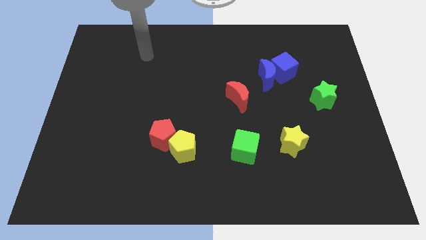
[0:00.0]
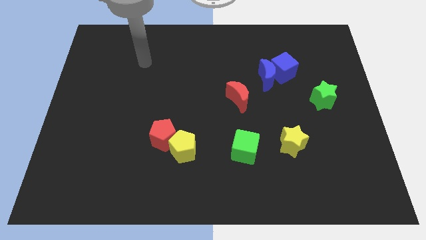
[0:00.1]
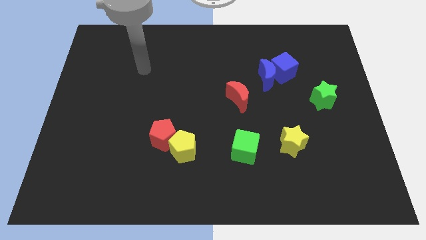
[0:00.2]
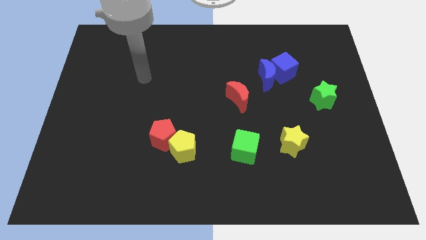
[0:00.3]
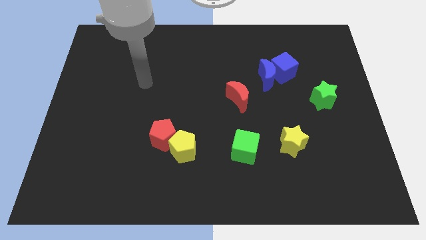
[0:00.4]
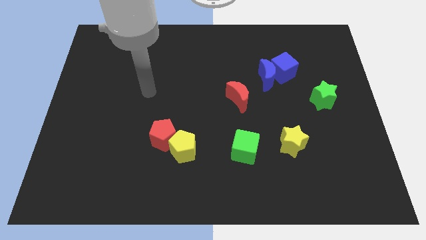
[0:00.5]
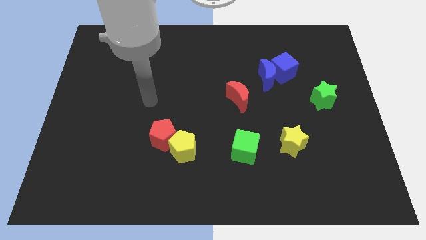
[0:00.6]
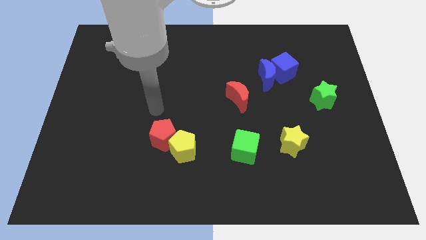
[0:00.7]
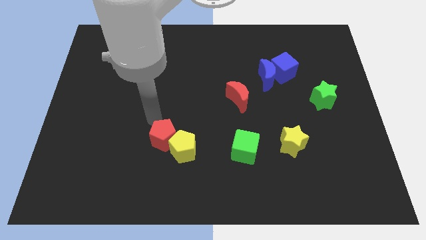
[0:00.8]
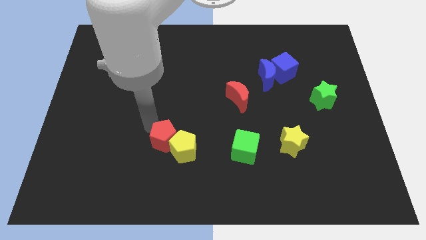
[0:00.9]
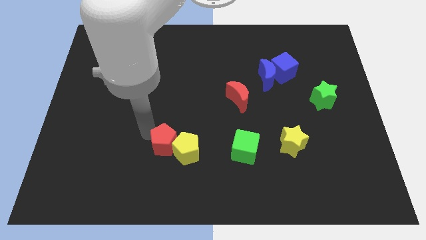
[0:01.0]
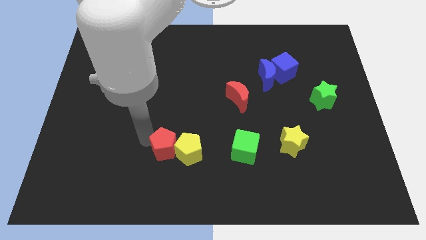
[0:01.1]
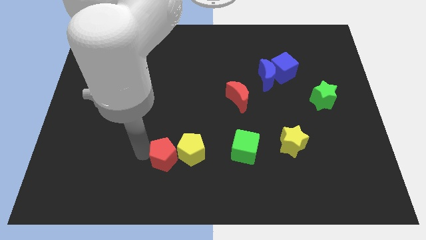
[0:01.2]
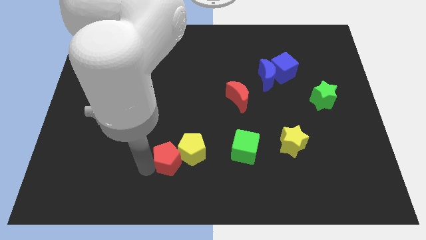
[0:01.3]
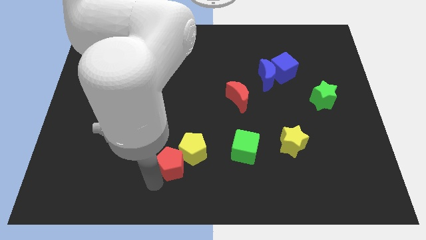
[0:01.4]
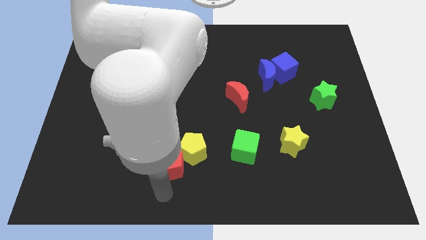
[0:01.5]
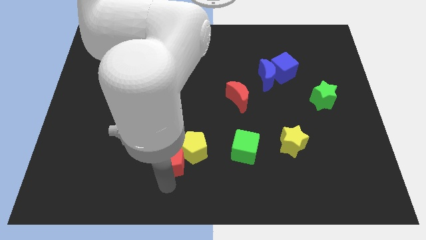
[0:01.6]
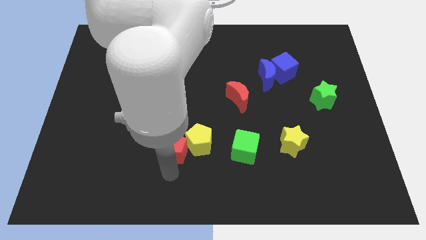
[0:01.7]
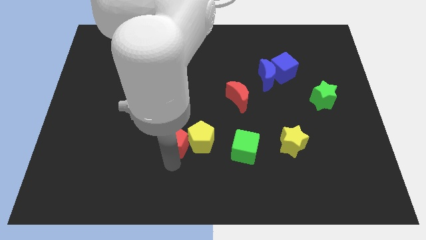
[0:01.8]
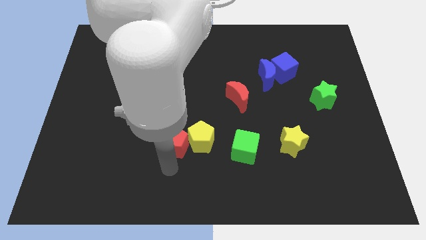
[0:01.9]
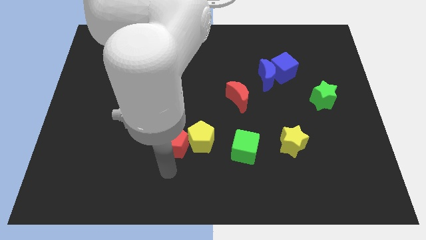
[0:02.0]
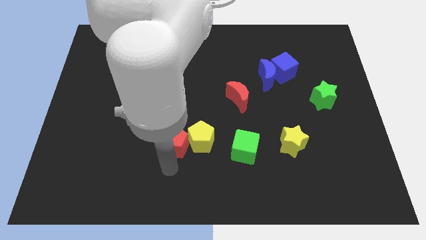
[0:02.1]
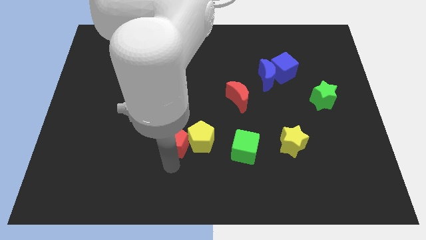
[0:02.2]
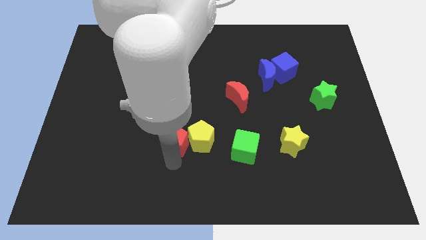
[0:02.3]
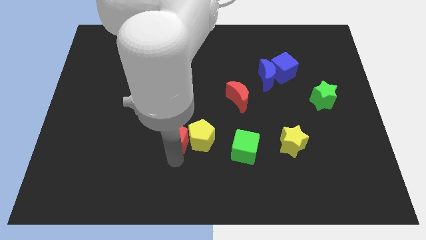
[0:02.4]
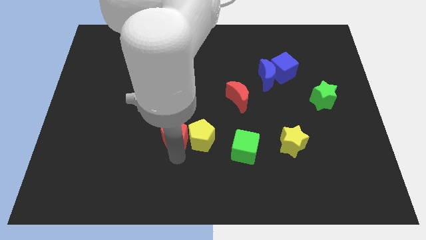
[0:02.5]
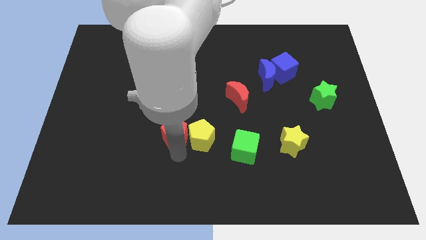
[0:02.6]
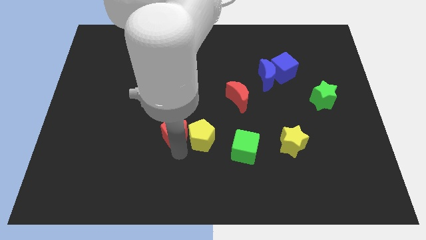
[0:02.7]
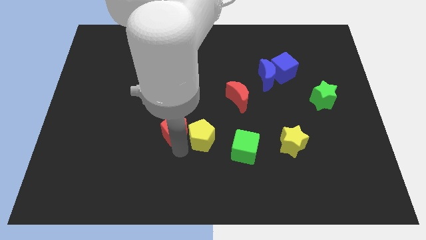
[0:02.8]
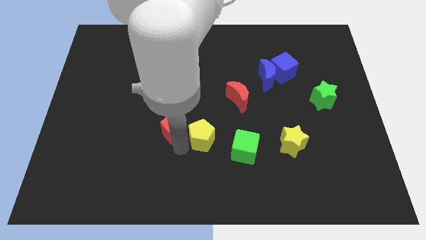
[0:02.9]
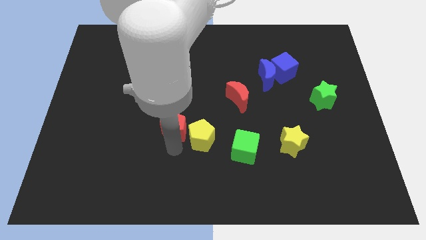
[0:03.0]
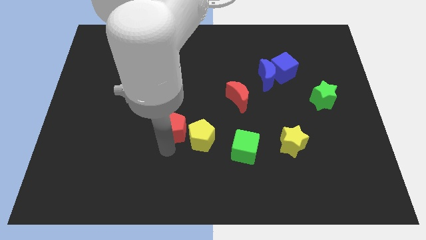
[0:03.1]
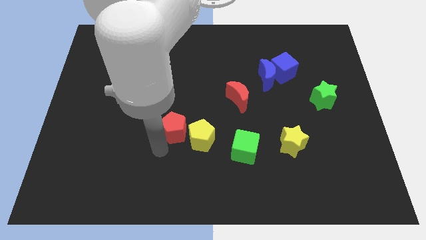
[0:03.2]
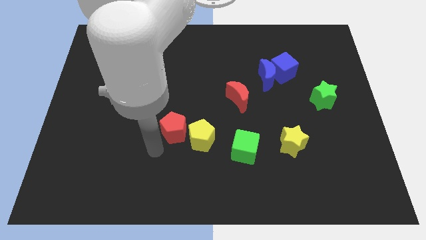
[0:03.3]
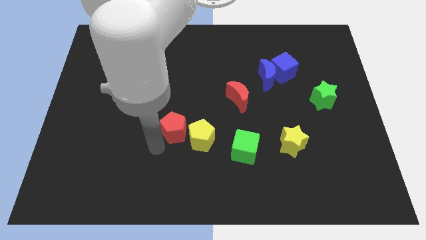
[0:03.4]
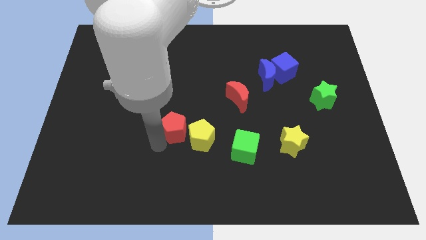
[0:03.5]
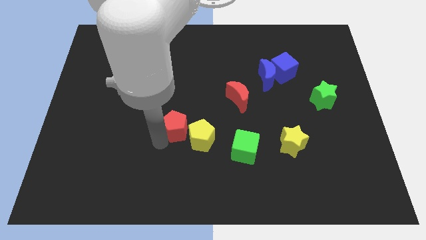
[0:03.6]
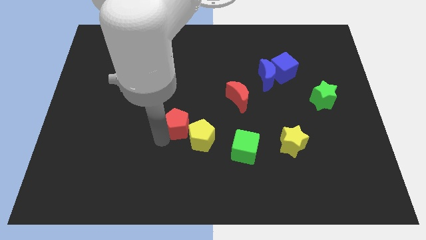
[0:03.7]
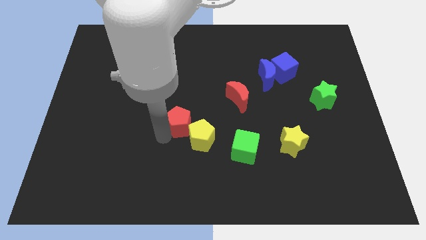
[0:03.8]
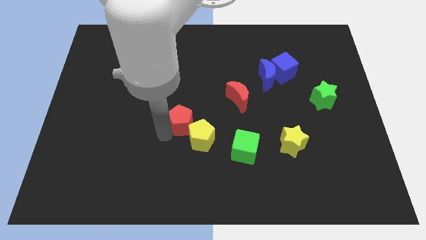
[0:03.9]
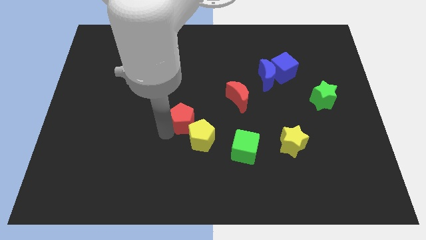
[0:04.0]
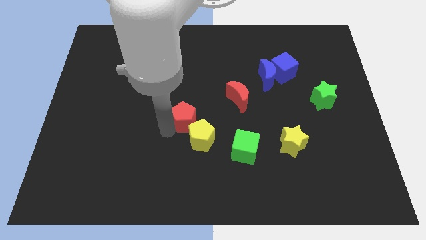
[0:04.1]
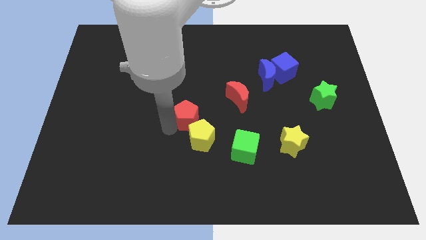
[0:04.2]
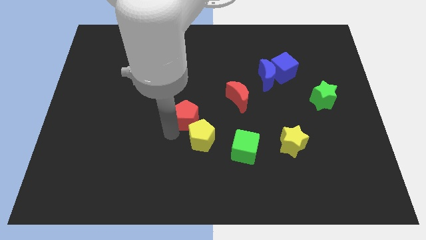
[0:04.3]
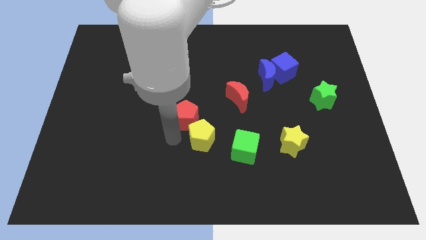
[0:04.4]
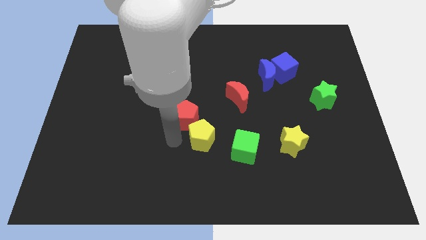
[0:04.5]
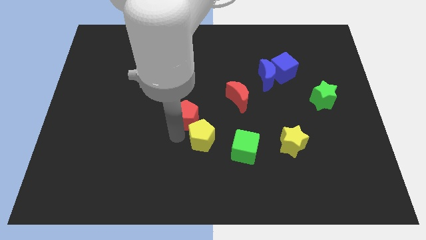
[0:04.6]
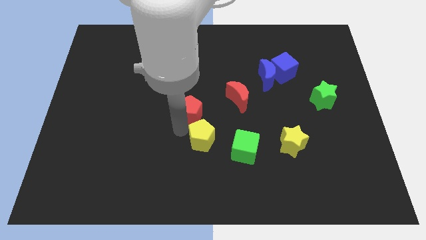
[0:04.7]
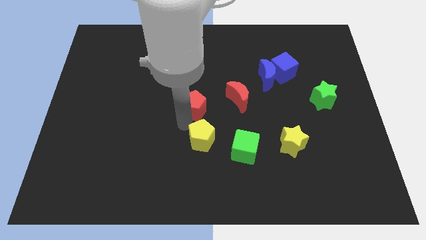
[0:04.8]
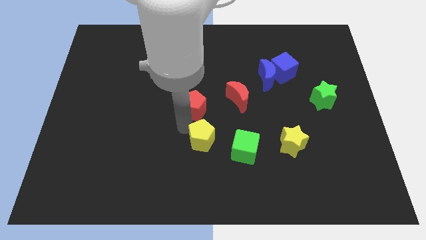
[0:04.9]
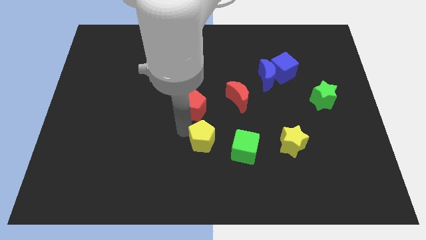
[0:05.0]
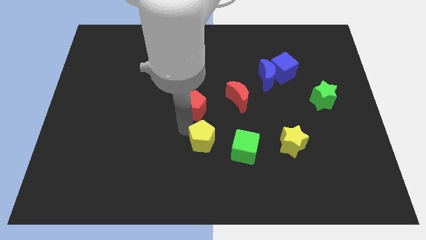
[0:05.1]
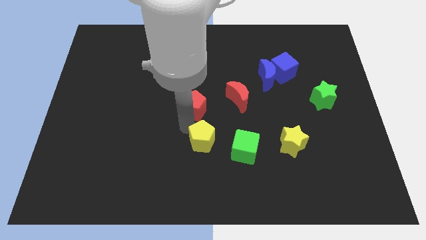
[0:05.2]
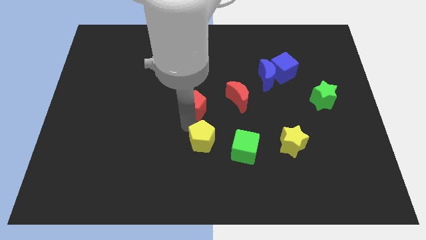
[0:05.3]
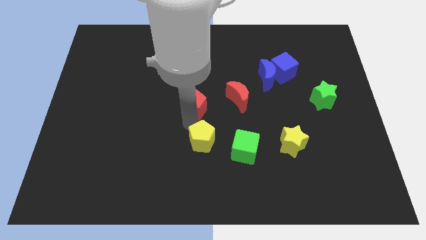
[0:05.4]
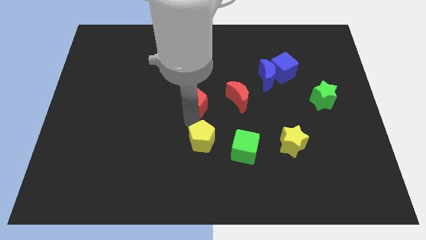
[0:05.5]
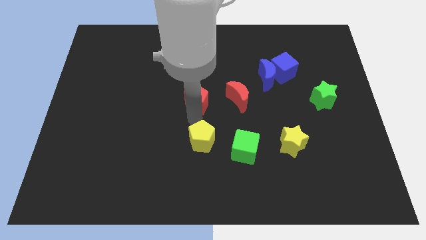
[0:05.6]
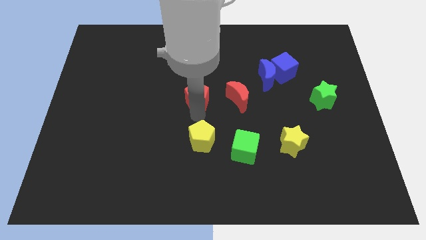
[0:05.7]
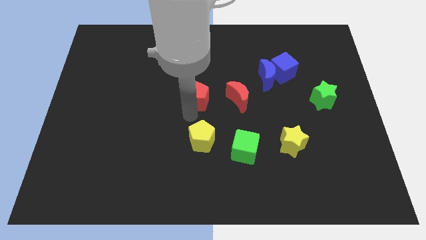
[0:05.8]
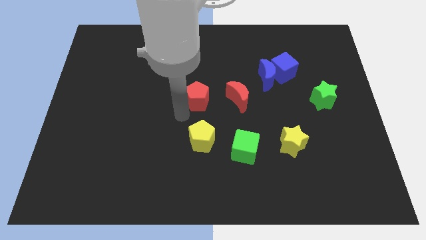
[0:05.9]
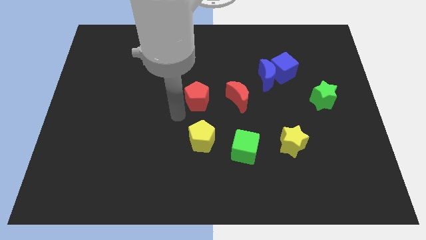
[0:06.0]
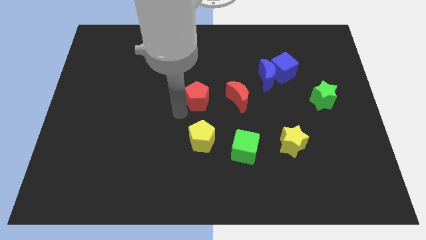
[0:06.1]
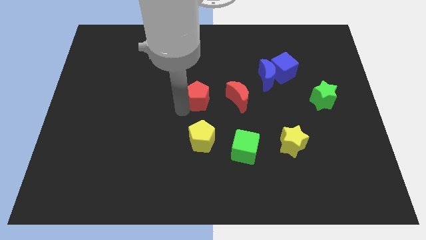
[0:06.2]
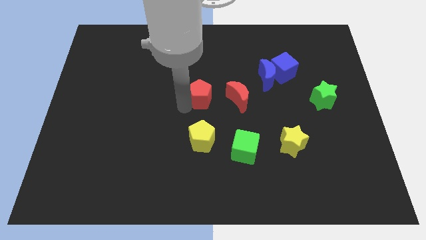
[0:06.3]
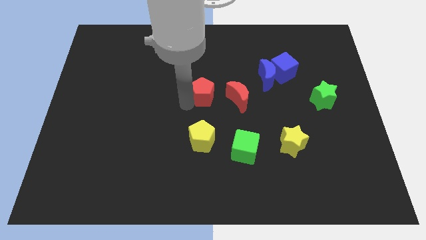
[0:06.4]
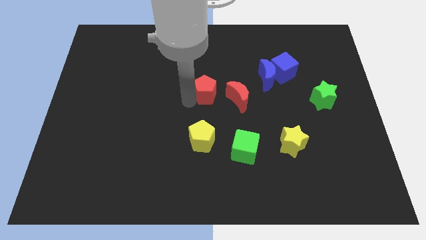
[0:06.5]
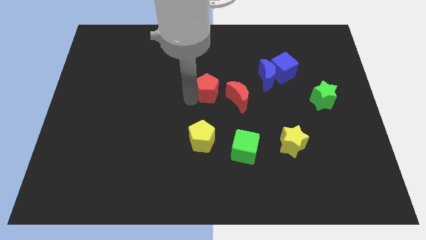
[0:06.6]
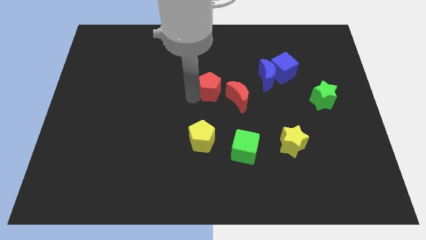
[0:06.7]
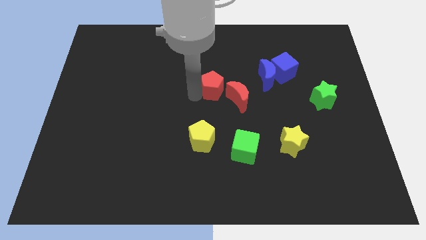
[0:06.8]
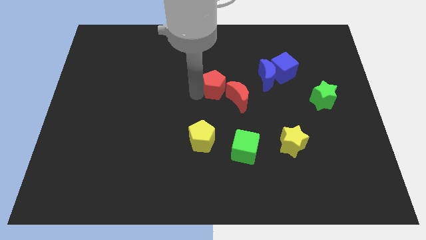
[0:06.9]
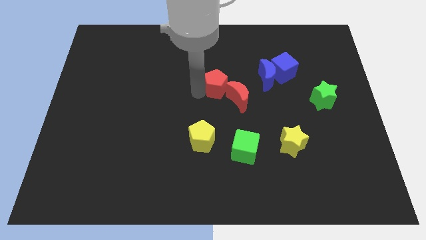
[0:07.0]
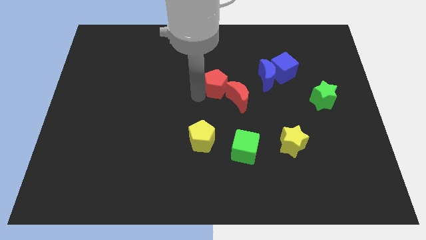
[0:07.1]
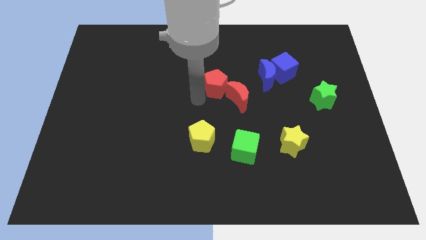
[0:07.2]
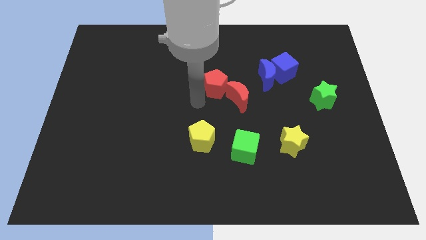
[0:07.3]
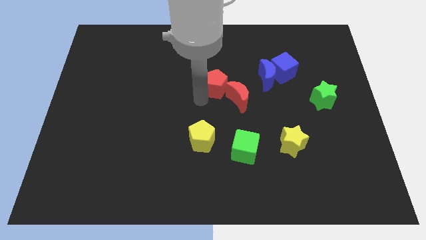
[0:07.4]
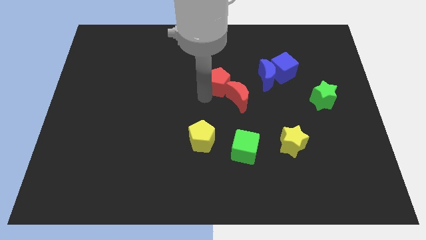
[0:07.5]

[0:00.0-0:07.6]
push the red pentagon to the top side of the red moon
